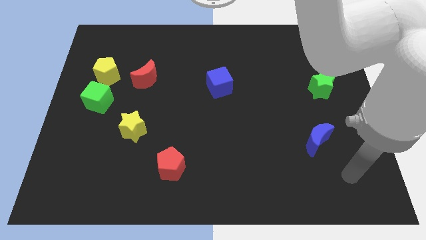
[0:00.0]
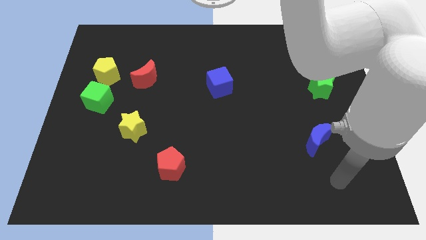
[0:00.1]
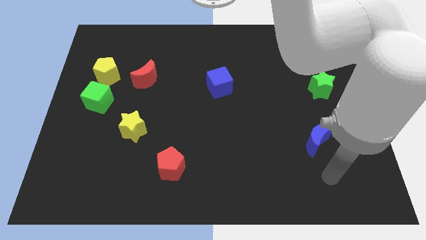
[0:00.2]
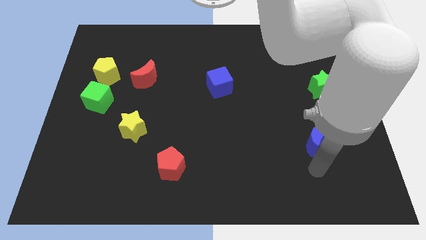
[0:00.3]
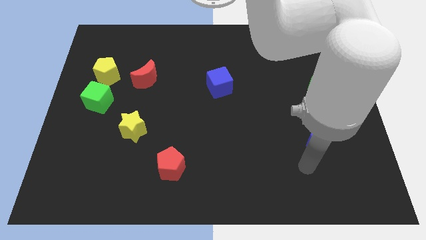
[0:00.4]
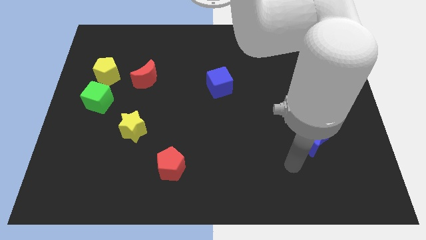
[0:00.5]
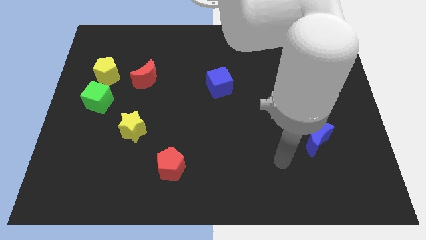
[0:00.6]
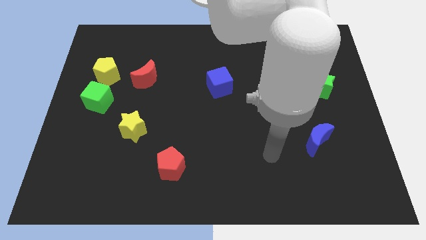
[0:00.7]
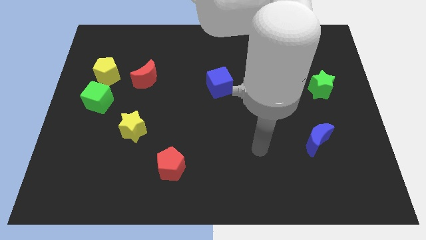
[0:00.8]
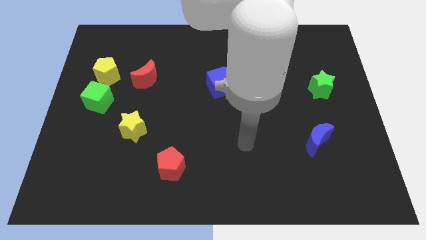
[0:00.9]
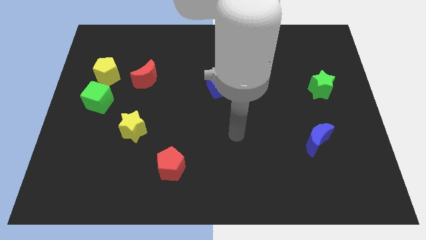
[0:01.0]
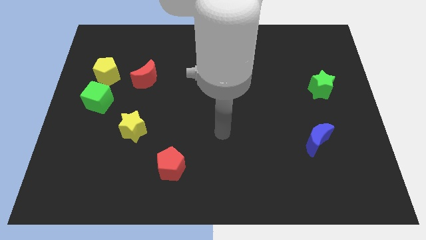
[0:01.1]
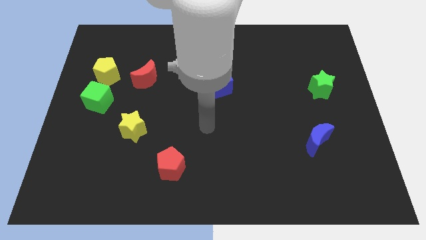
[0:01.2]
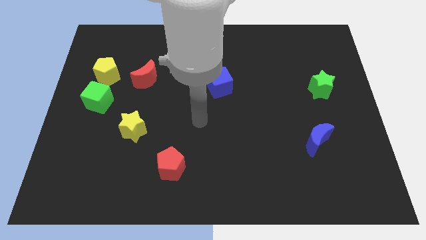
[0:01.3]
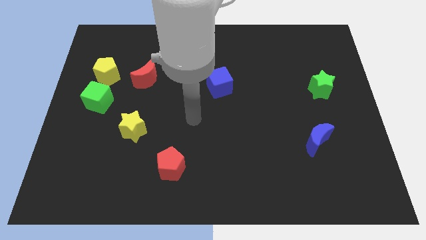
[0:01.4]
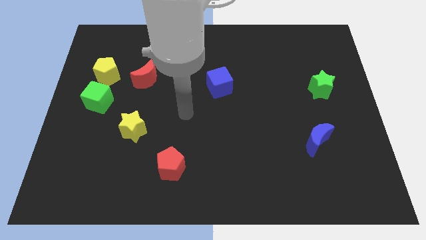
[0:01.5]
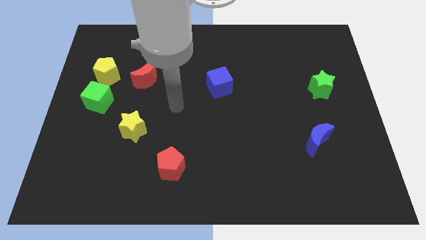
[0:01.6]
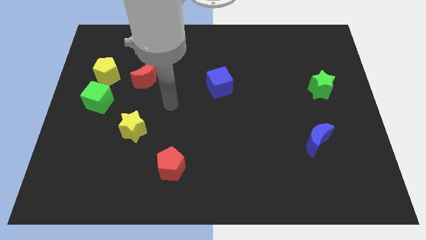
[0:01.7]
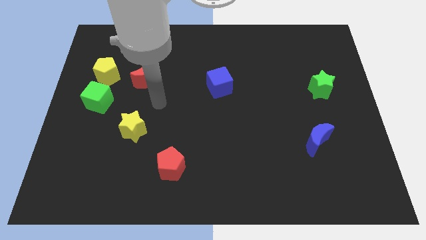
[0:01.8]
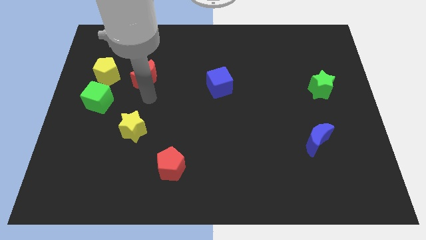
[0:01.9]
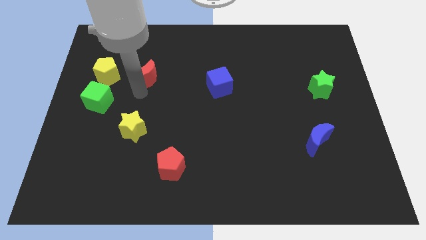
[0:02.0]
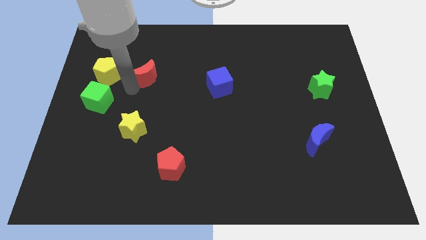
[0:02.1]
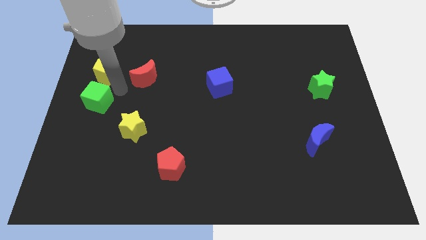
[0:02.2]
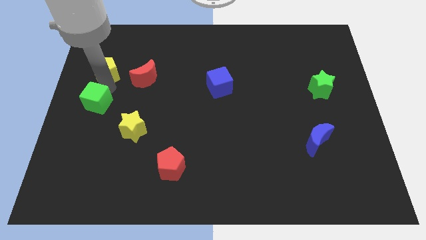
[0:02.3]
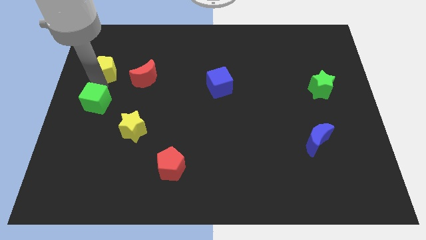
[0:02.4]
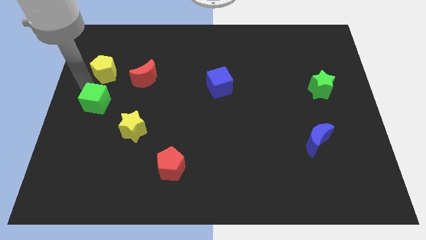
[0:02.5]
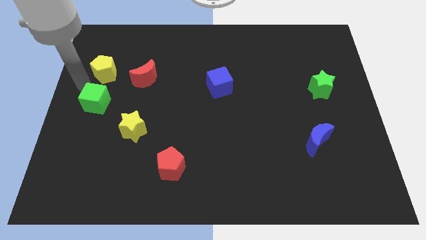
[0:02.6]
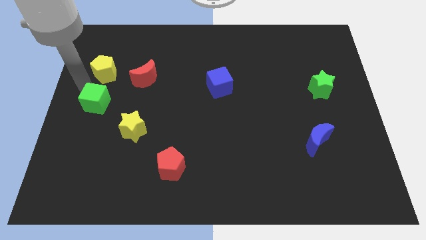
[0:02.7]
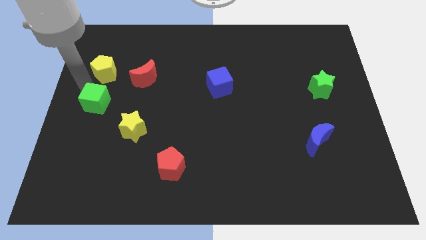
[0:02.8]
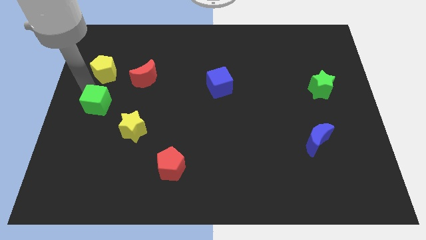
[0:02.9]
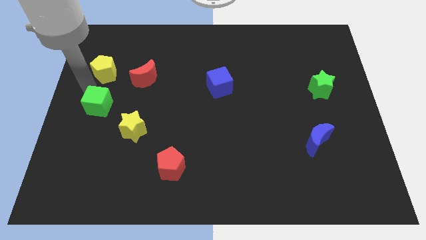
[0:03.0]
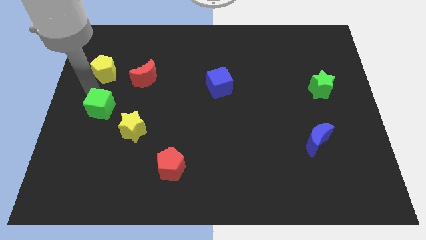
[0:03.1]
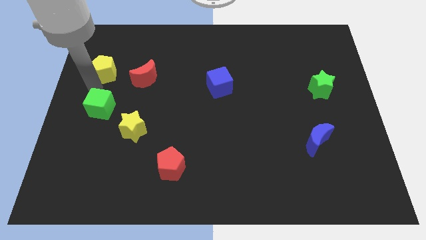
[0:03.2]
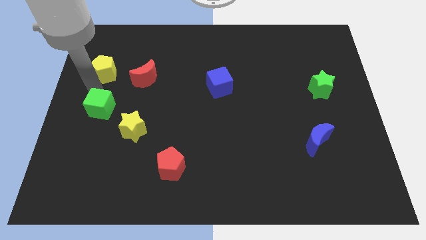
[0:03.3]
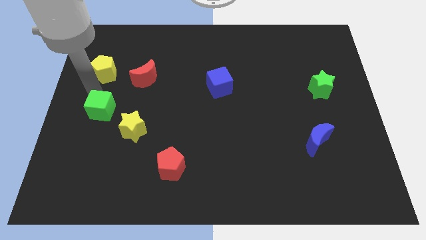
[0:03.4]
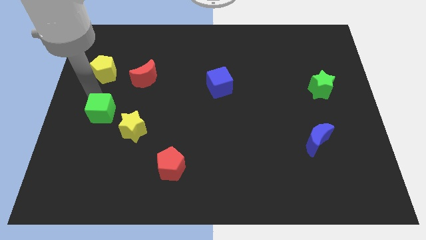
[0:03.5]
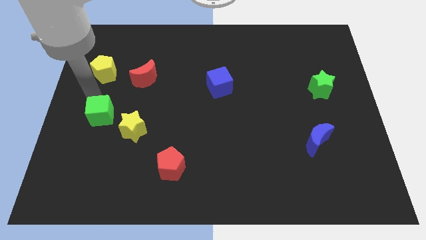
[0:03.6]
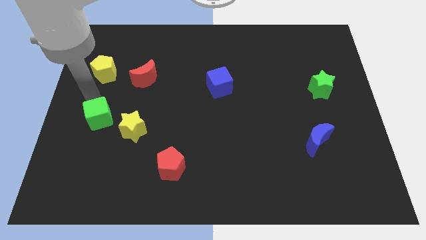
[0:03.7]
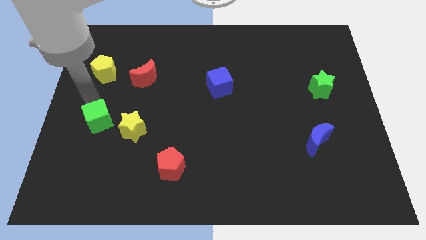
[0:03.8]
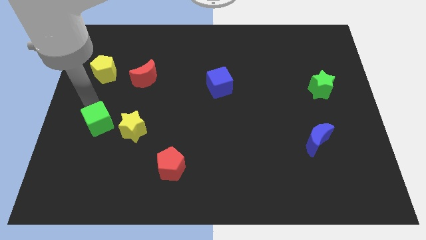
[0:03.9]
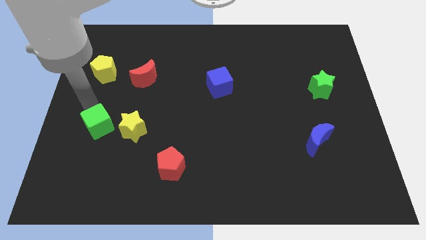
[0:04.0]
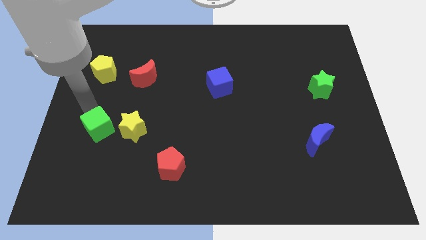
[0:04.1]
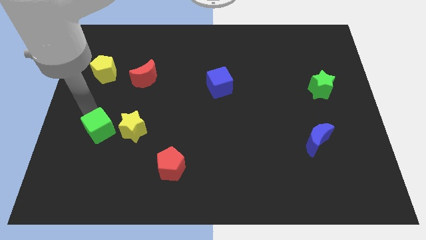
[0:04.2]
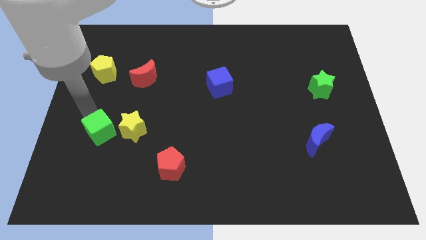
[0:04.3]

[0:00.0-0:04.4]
slide the green cube down and then to the right somewhat

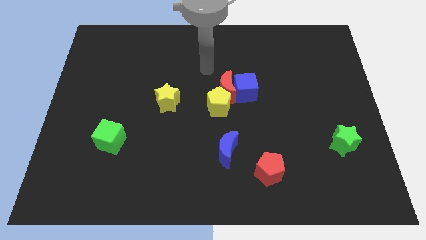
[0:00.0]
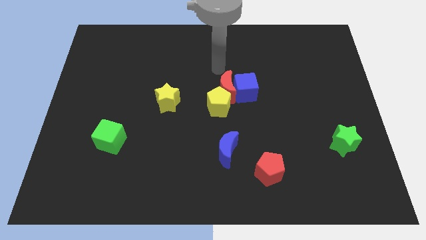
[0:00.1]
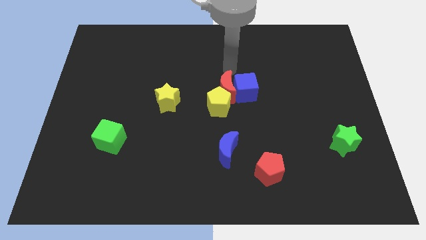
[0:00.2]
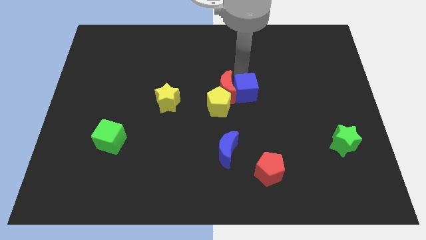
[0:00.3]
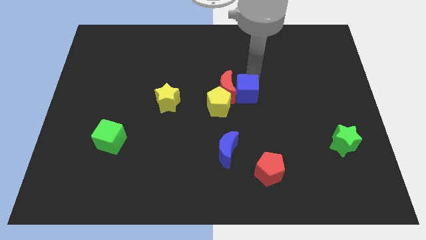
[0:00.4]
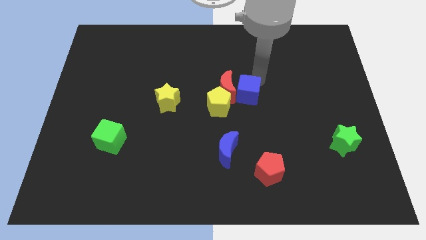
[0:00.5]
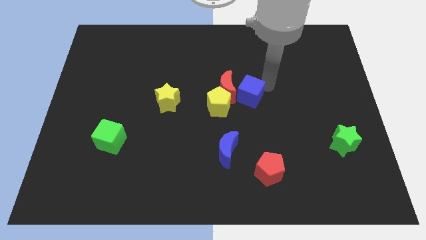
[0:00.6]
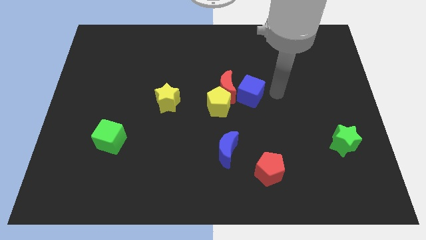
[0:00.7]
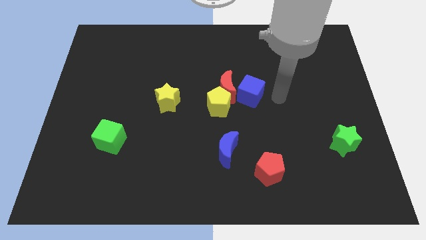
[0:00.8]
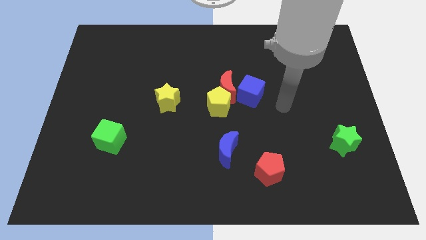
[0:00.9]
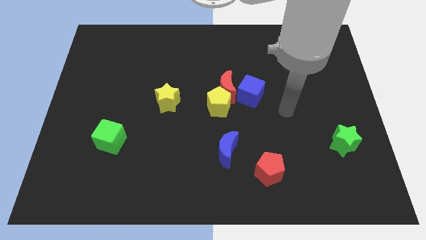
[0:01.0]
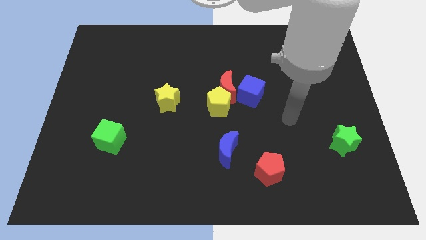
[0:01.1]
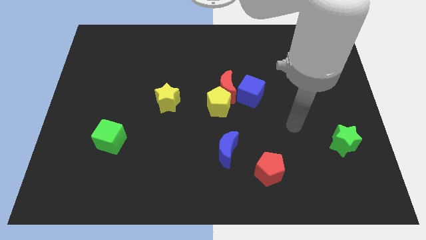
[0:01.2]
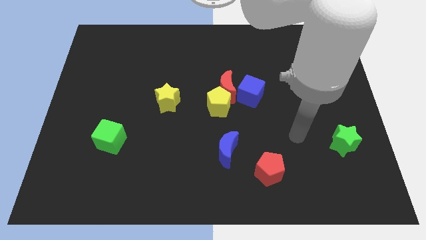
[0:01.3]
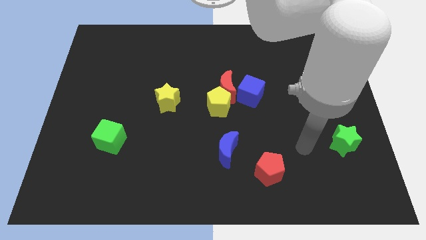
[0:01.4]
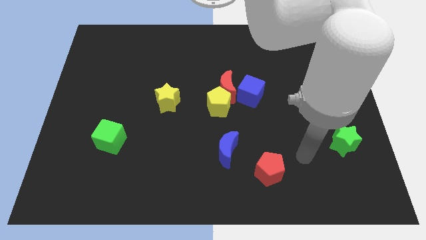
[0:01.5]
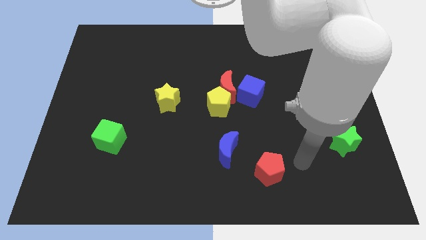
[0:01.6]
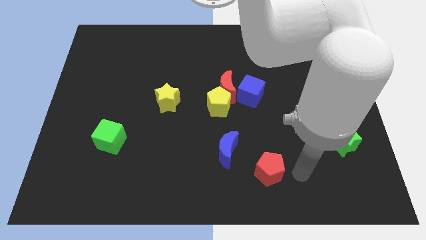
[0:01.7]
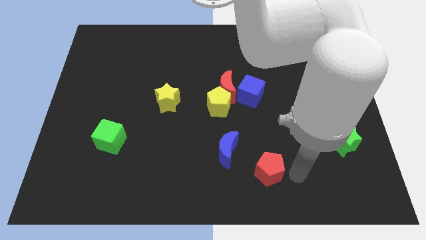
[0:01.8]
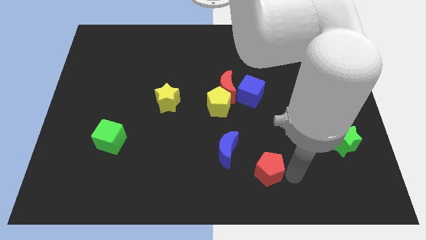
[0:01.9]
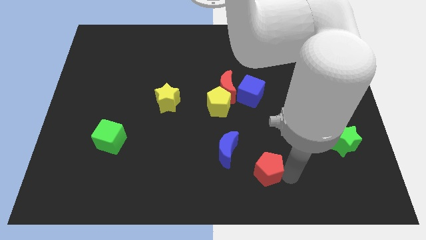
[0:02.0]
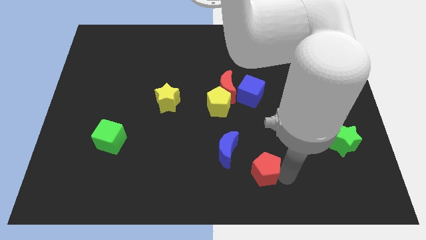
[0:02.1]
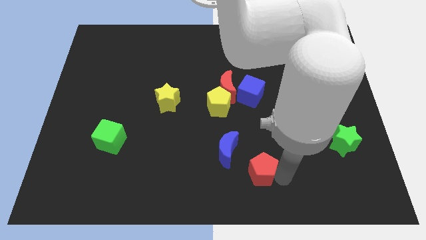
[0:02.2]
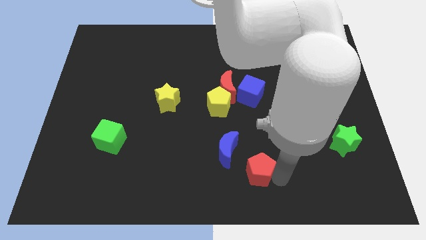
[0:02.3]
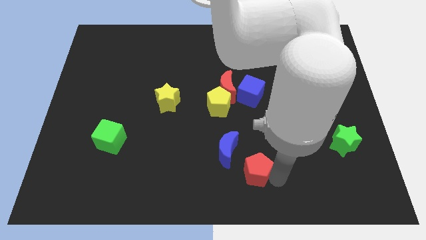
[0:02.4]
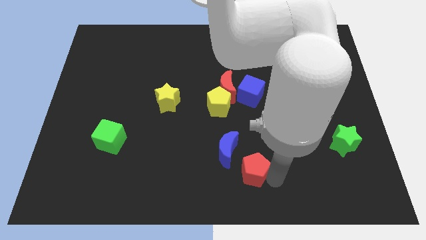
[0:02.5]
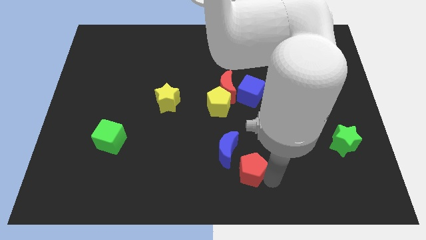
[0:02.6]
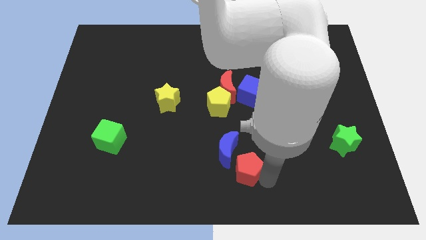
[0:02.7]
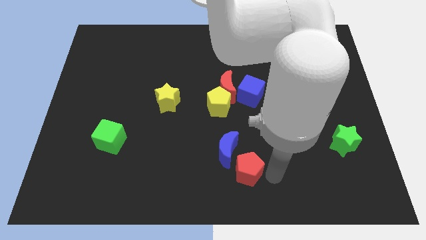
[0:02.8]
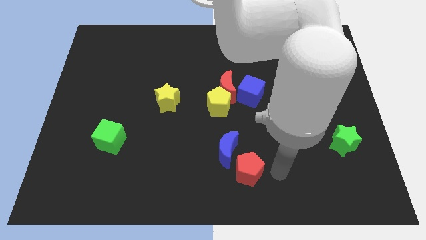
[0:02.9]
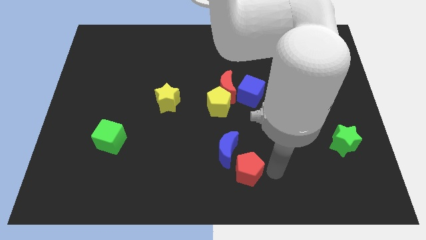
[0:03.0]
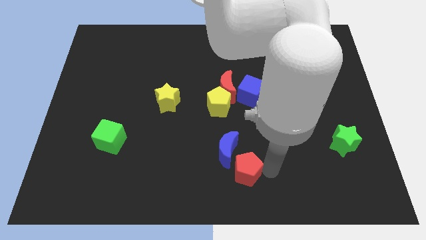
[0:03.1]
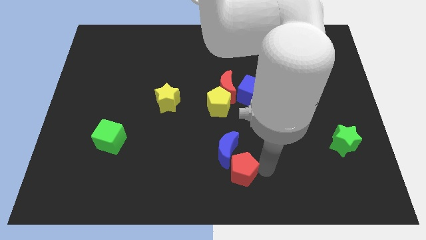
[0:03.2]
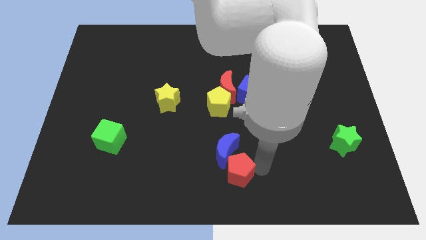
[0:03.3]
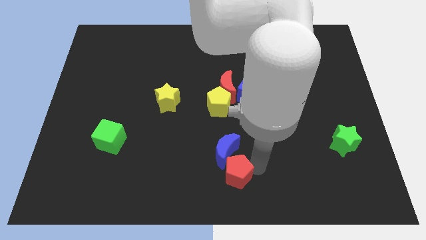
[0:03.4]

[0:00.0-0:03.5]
slightly slide the red pentagon left
